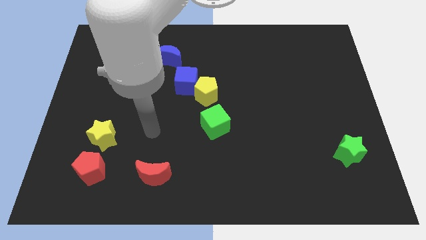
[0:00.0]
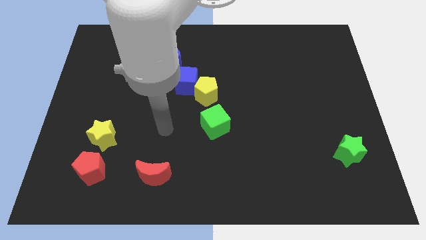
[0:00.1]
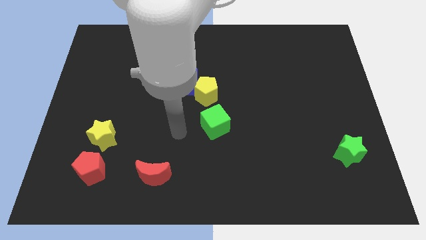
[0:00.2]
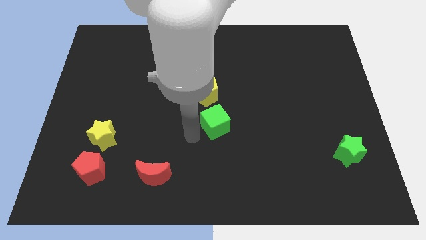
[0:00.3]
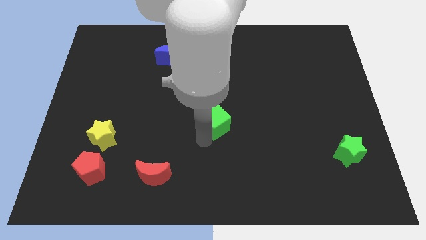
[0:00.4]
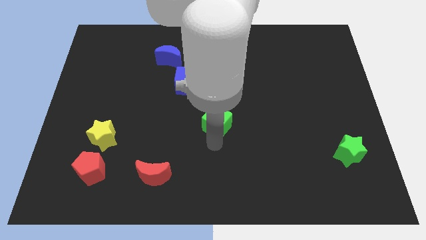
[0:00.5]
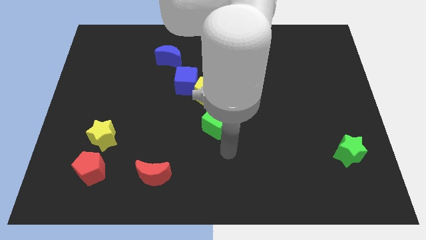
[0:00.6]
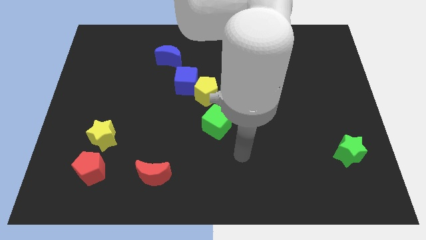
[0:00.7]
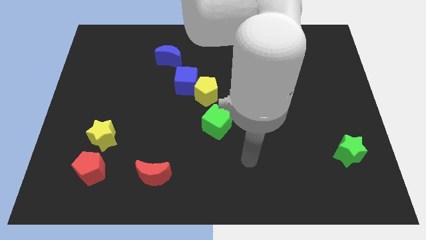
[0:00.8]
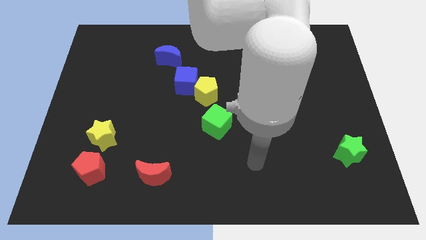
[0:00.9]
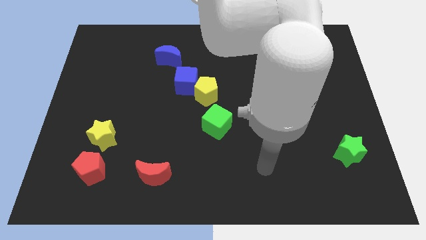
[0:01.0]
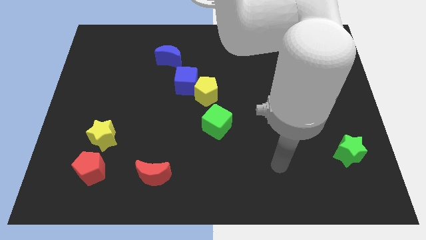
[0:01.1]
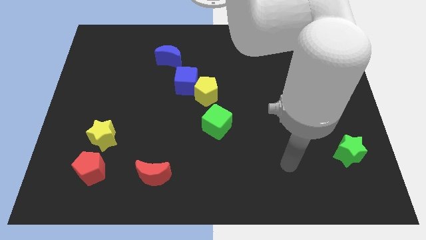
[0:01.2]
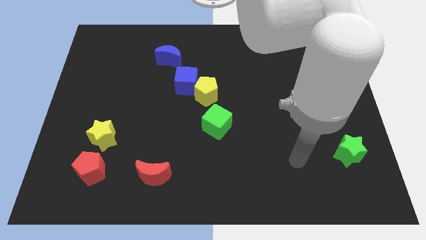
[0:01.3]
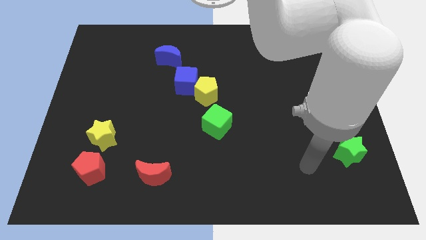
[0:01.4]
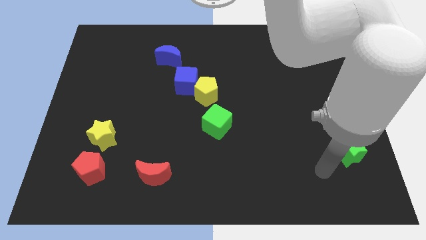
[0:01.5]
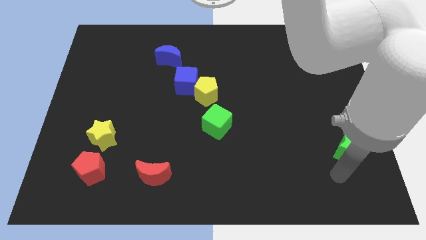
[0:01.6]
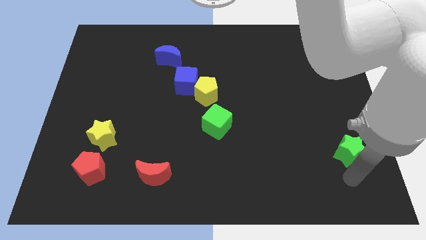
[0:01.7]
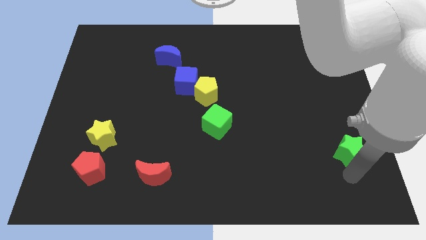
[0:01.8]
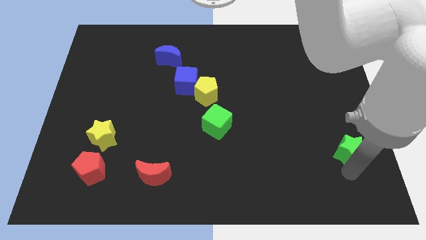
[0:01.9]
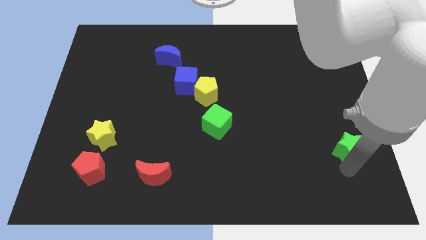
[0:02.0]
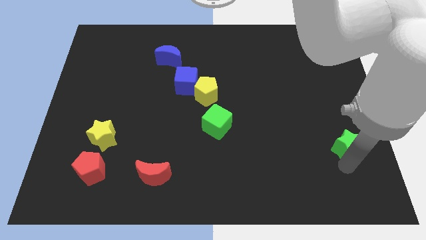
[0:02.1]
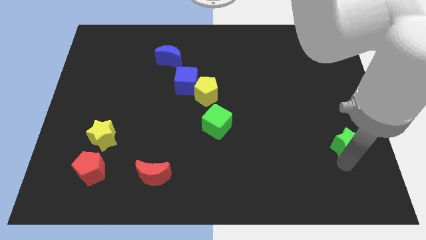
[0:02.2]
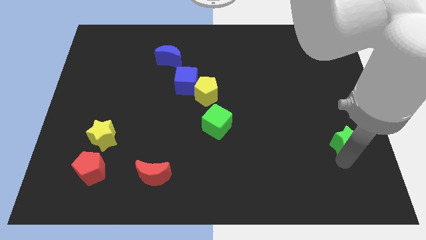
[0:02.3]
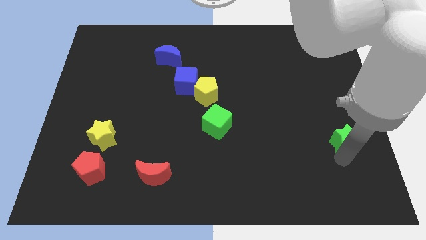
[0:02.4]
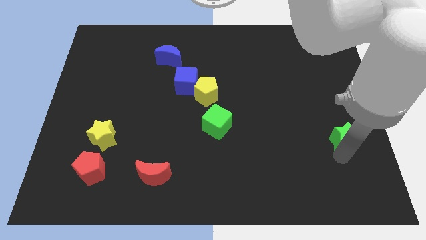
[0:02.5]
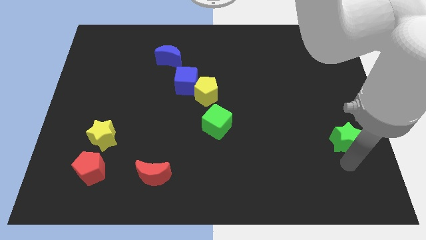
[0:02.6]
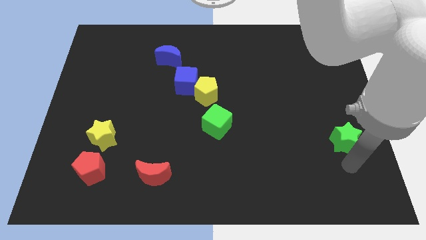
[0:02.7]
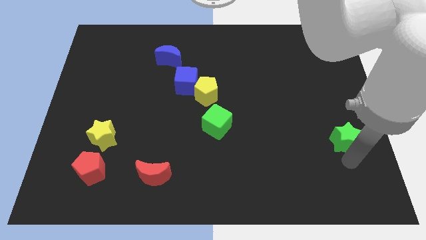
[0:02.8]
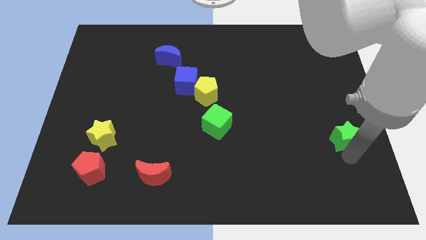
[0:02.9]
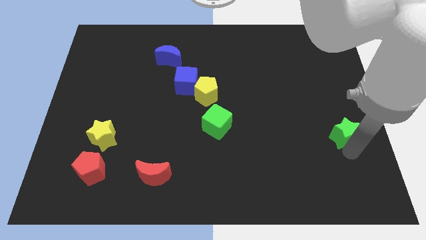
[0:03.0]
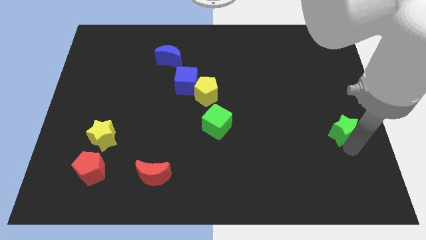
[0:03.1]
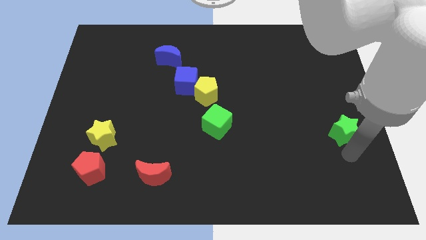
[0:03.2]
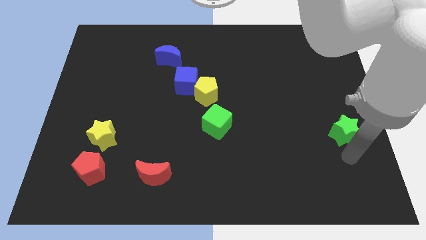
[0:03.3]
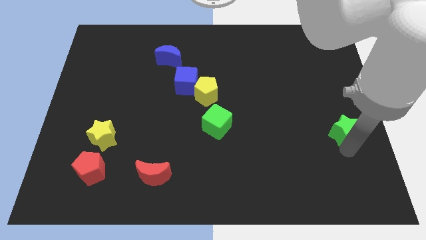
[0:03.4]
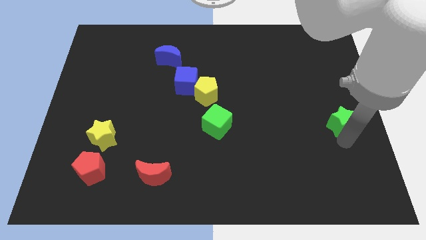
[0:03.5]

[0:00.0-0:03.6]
move the green star up a little bit

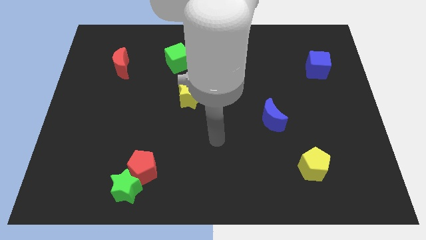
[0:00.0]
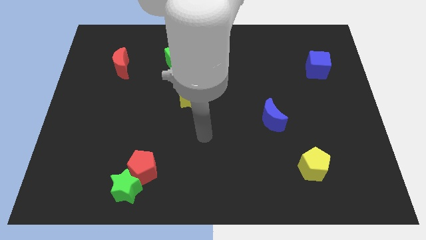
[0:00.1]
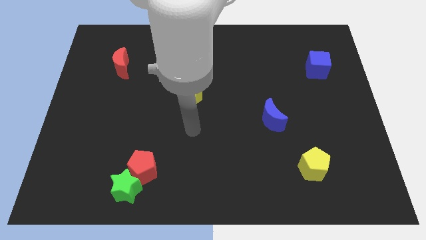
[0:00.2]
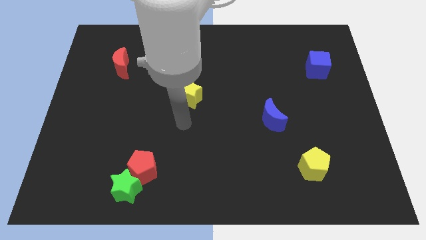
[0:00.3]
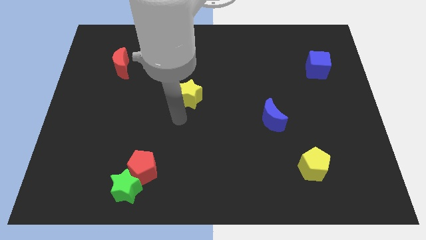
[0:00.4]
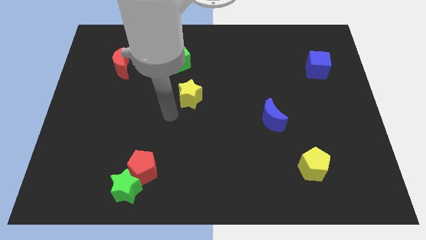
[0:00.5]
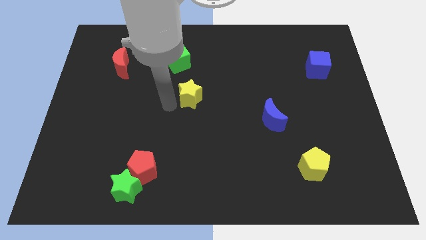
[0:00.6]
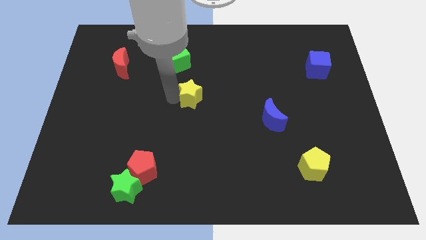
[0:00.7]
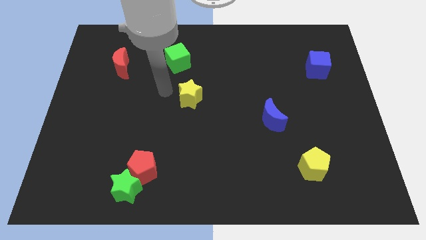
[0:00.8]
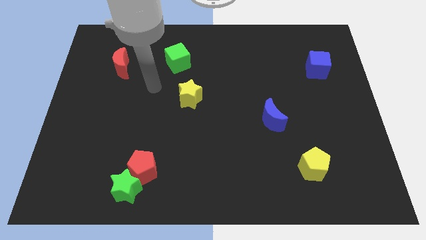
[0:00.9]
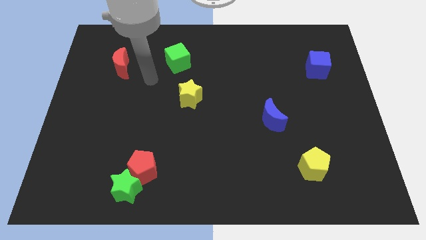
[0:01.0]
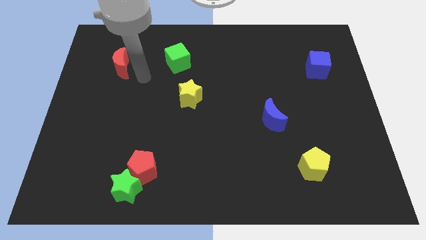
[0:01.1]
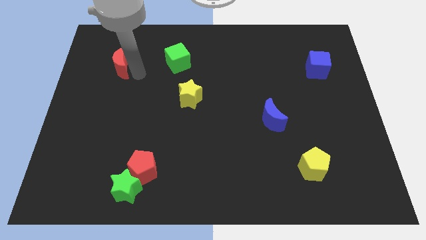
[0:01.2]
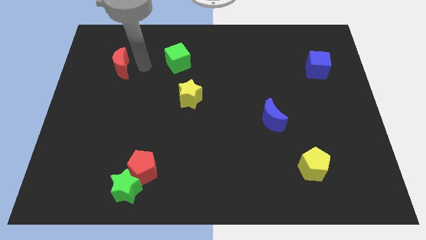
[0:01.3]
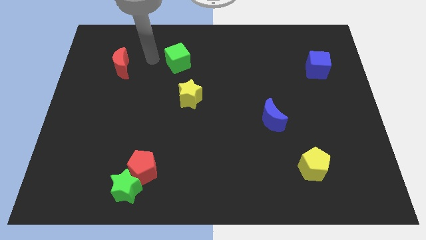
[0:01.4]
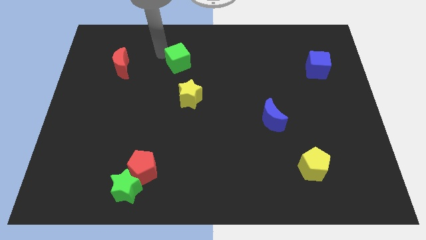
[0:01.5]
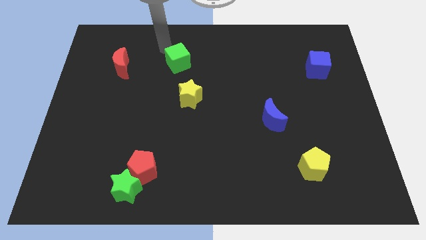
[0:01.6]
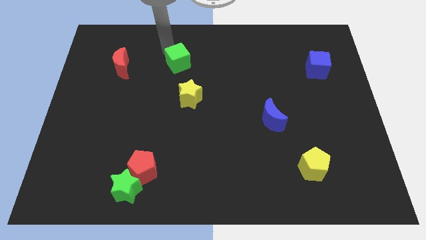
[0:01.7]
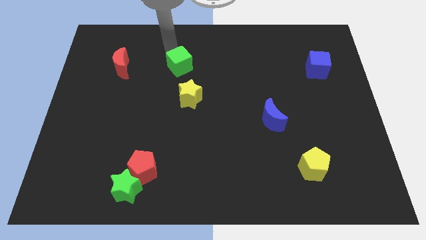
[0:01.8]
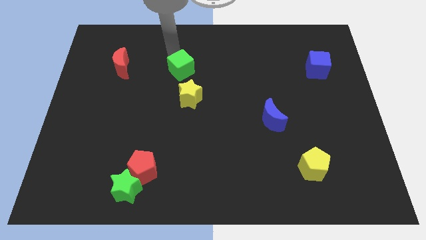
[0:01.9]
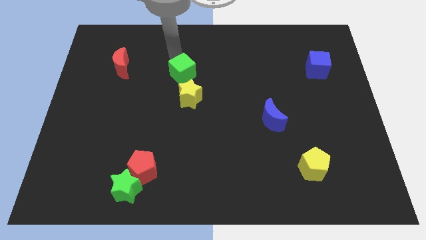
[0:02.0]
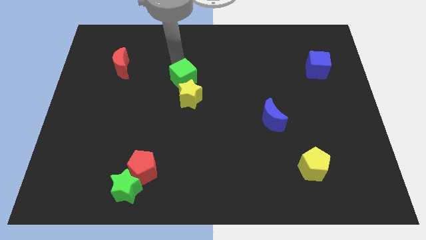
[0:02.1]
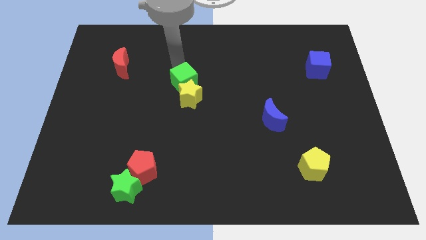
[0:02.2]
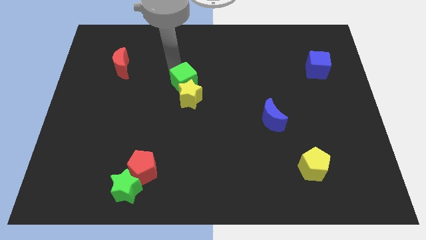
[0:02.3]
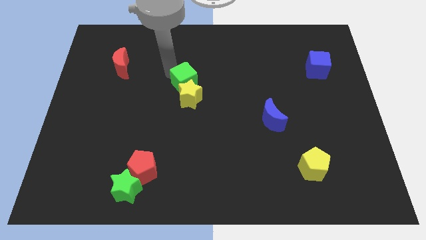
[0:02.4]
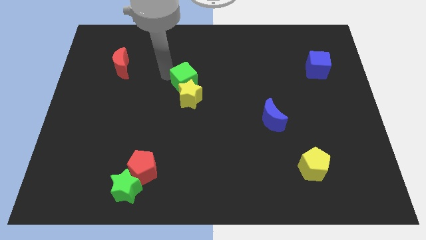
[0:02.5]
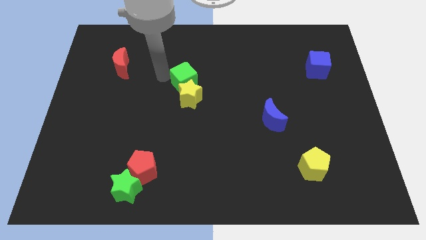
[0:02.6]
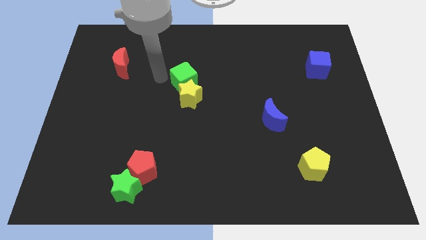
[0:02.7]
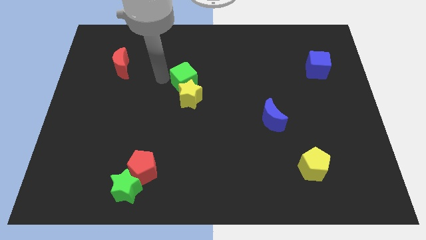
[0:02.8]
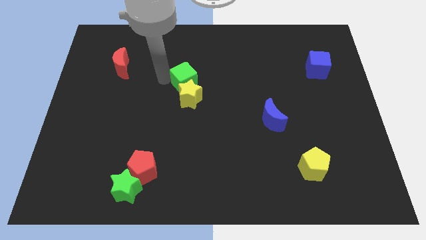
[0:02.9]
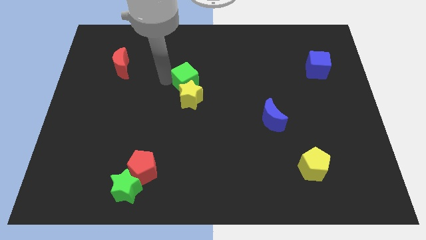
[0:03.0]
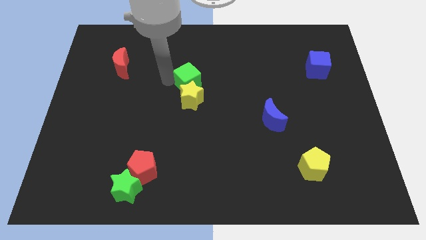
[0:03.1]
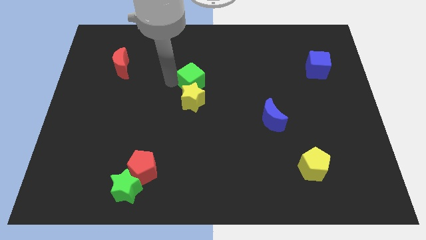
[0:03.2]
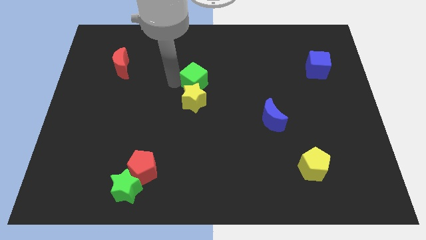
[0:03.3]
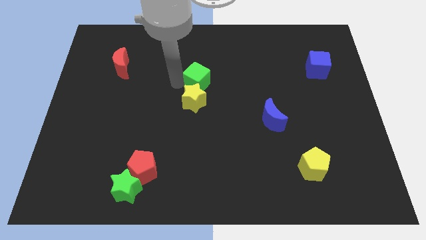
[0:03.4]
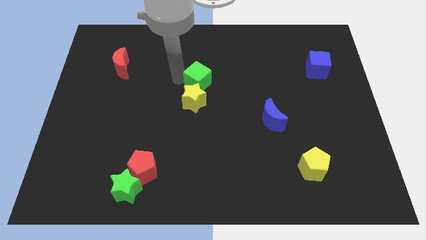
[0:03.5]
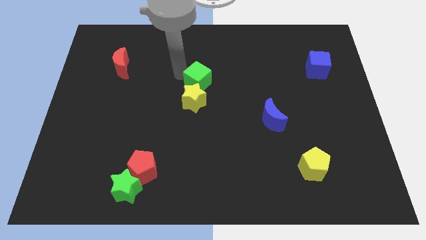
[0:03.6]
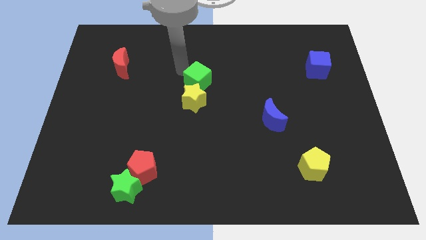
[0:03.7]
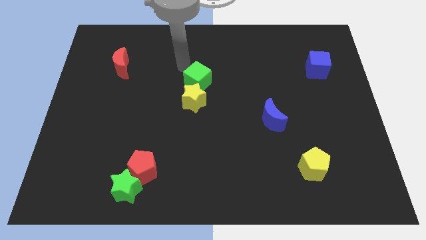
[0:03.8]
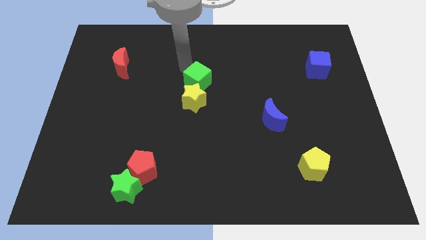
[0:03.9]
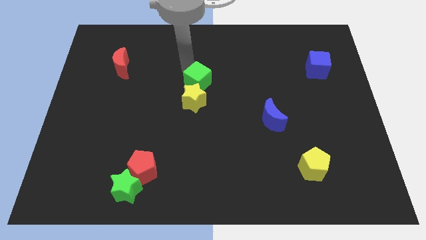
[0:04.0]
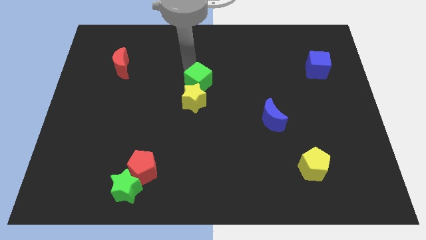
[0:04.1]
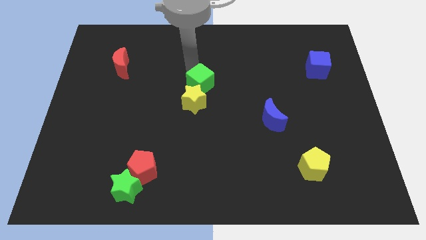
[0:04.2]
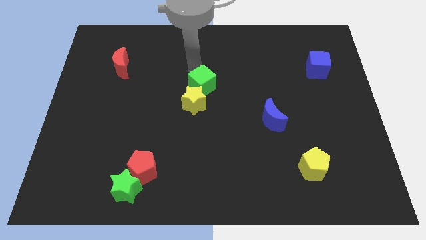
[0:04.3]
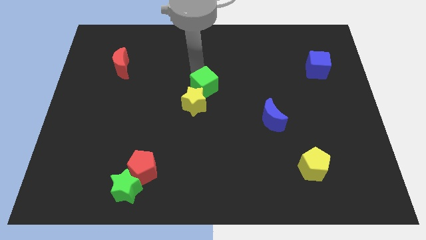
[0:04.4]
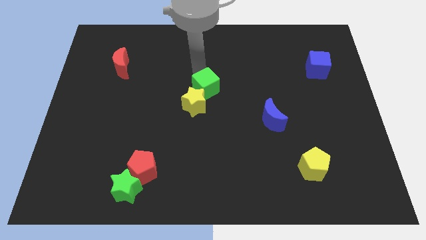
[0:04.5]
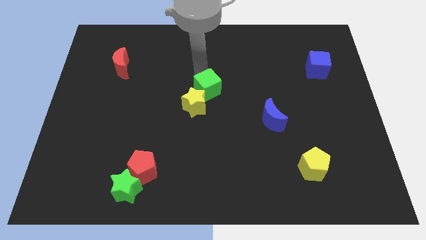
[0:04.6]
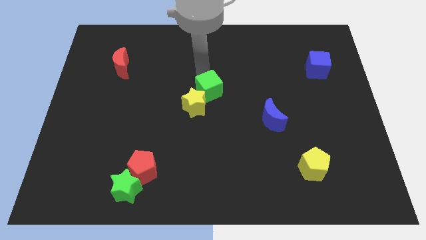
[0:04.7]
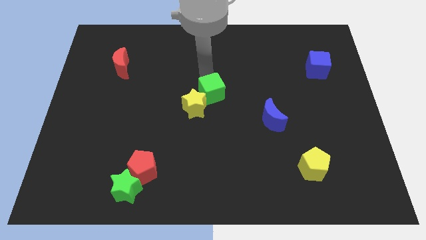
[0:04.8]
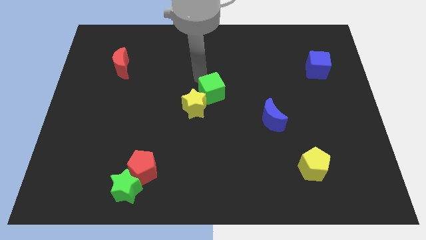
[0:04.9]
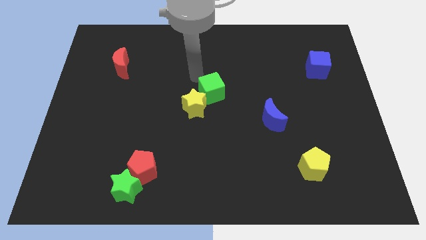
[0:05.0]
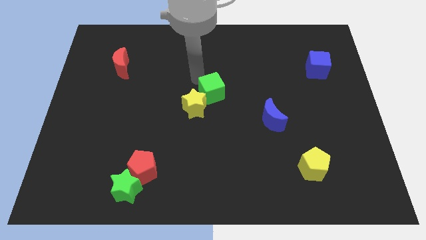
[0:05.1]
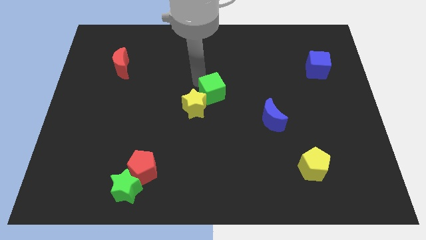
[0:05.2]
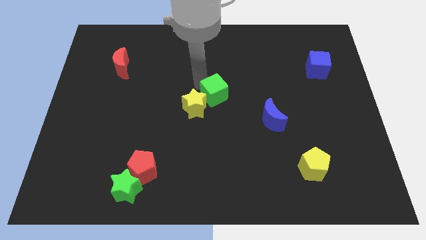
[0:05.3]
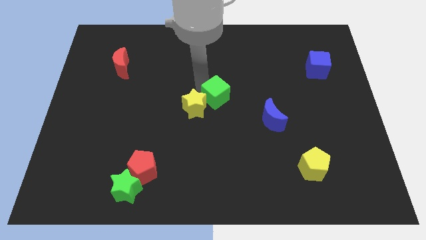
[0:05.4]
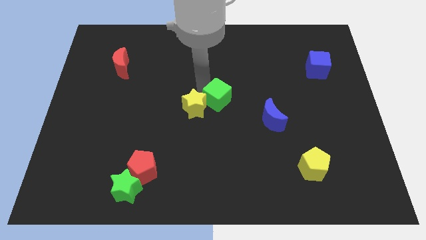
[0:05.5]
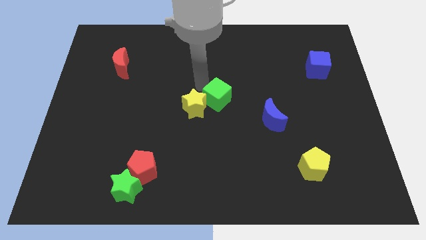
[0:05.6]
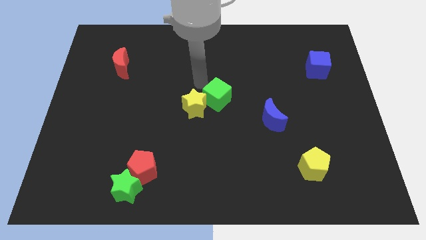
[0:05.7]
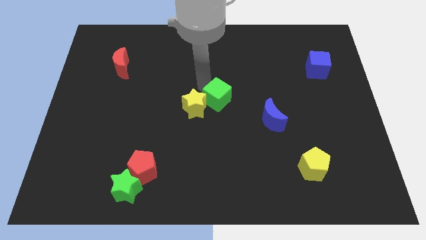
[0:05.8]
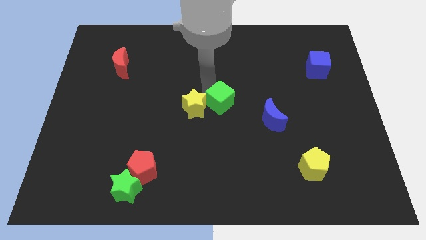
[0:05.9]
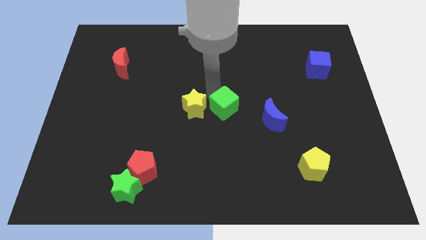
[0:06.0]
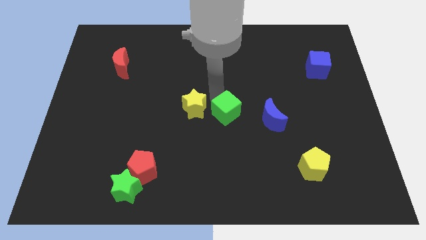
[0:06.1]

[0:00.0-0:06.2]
push the green cube downwards and to the right diagonally
